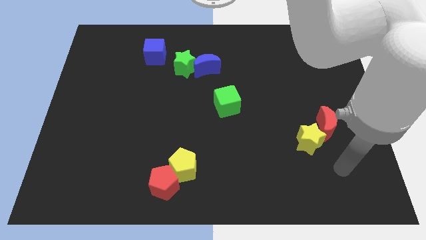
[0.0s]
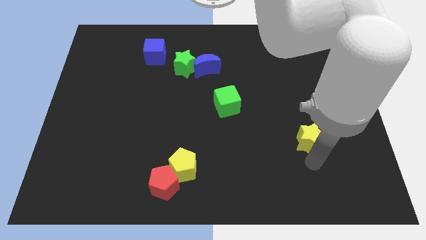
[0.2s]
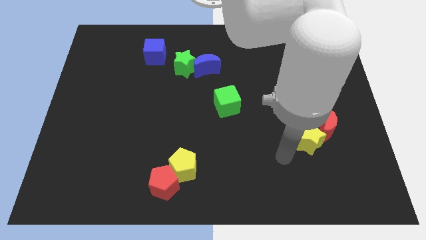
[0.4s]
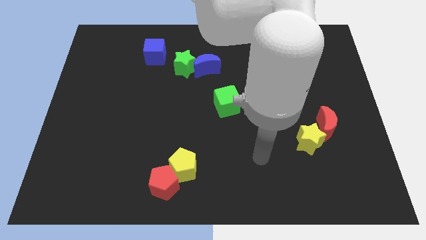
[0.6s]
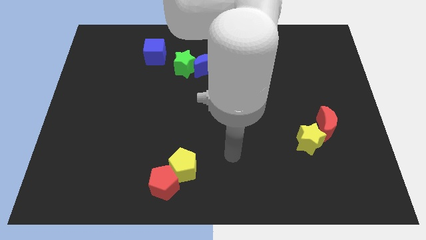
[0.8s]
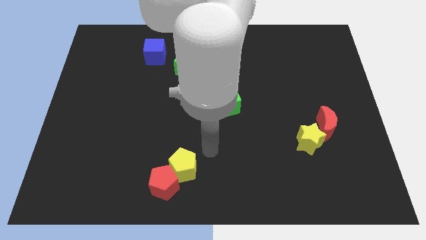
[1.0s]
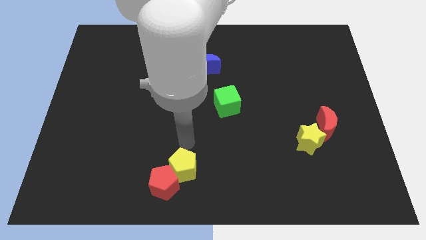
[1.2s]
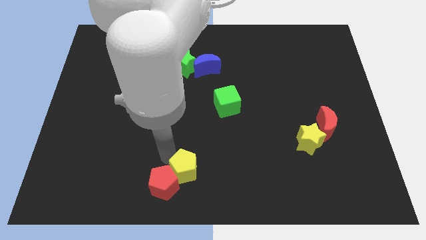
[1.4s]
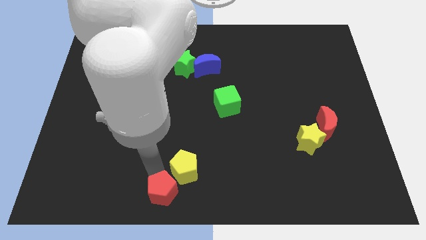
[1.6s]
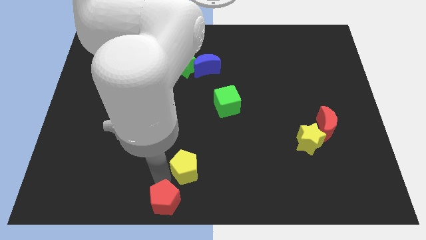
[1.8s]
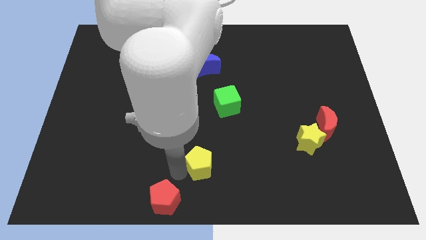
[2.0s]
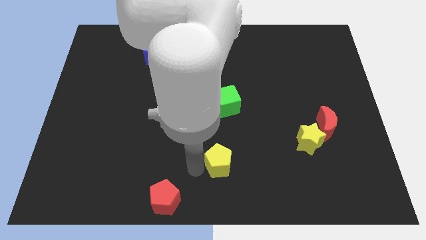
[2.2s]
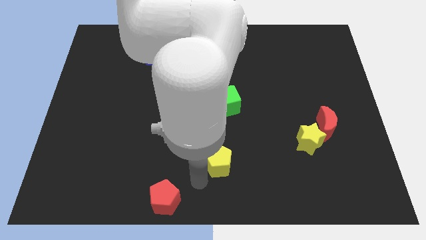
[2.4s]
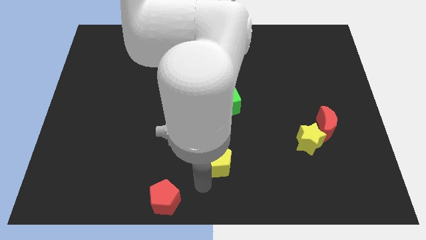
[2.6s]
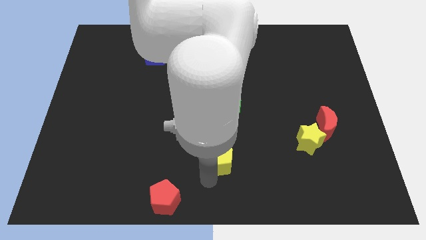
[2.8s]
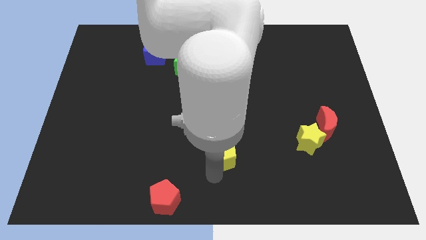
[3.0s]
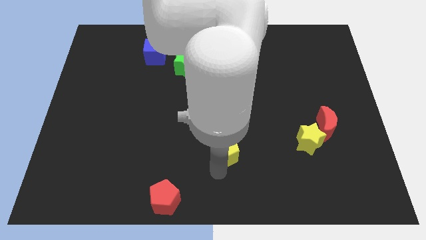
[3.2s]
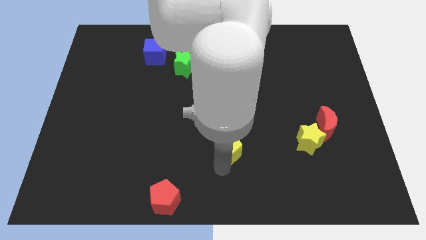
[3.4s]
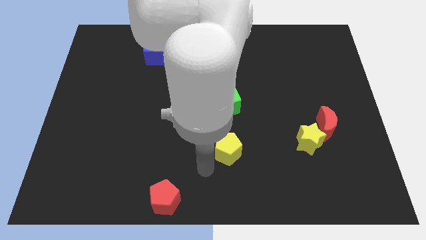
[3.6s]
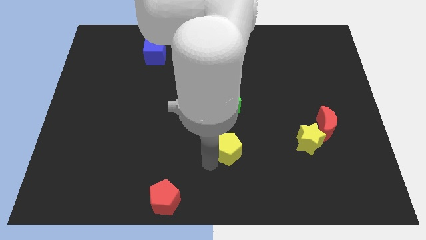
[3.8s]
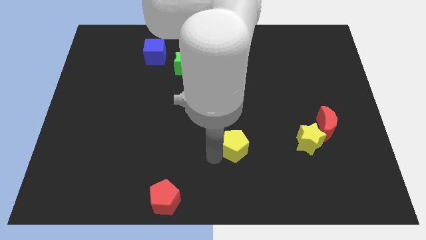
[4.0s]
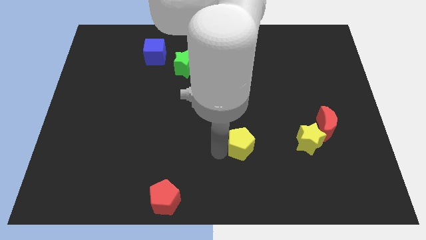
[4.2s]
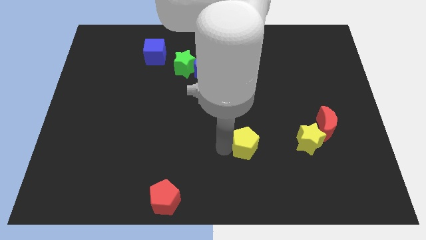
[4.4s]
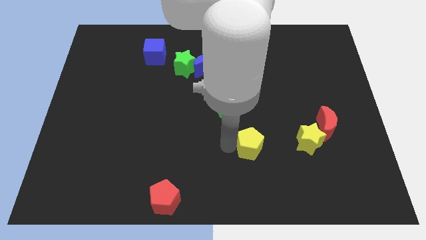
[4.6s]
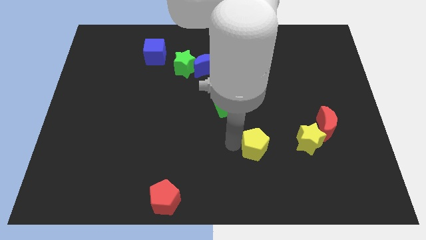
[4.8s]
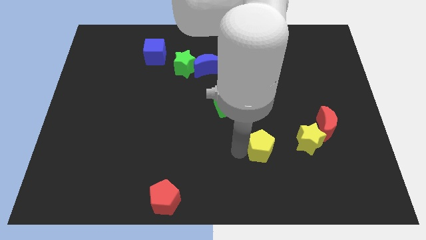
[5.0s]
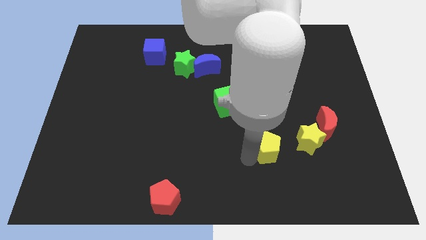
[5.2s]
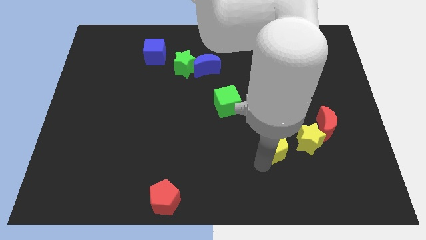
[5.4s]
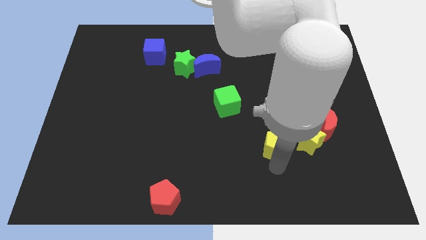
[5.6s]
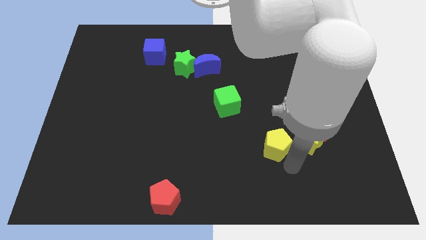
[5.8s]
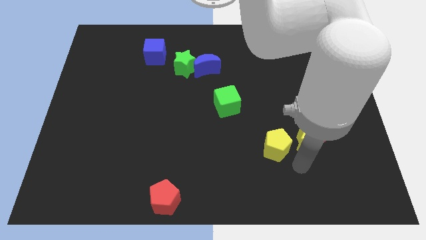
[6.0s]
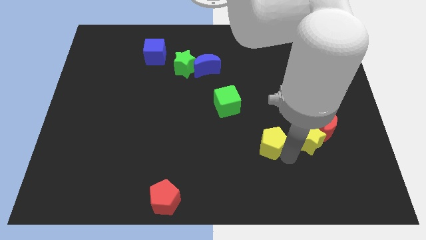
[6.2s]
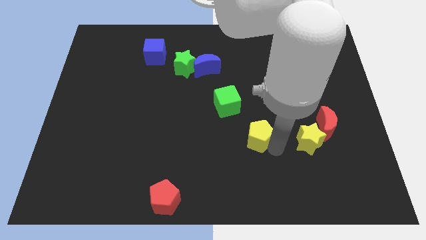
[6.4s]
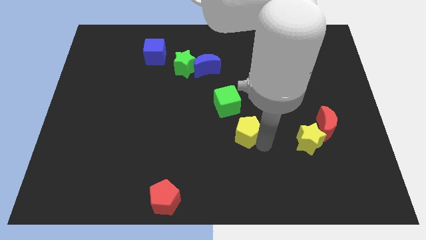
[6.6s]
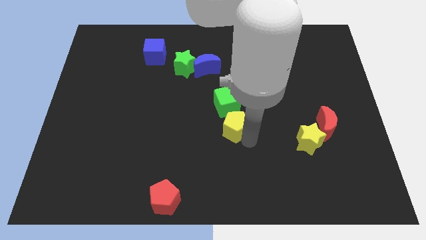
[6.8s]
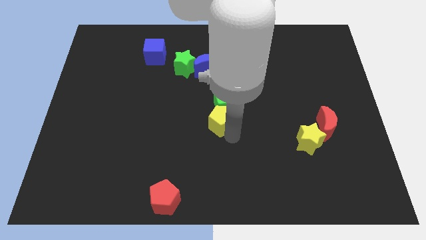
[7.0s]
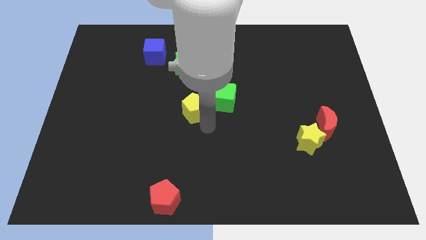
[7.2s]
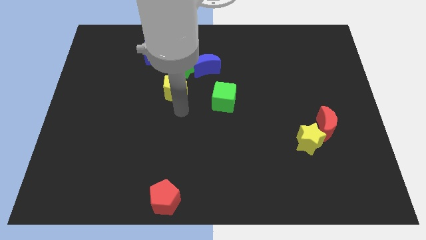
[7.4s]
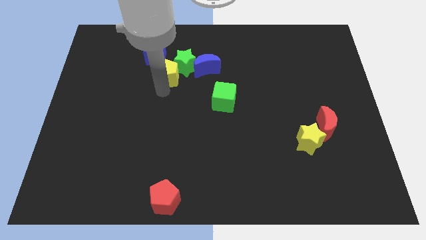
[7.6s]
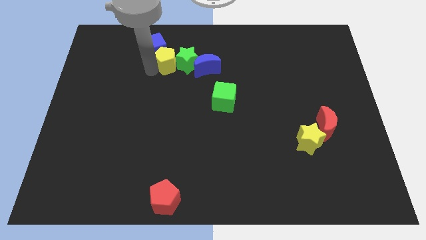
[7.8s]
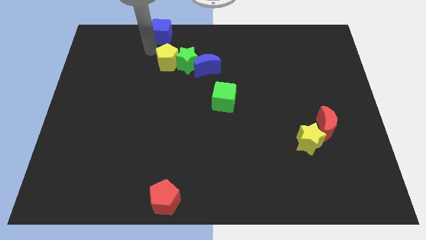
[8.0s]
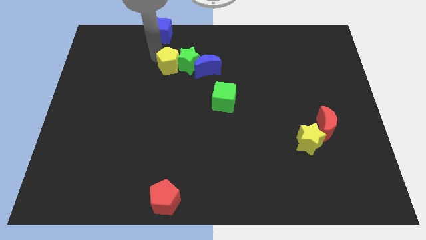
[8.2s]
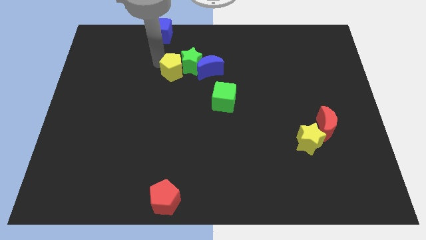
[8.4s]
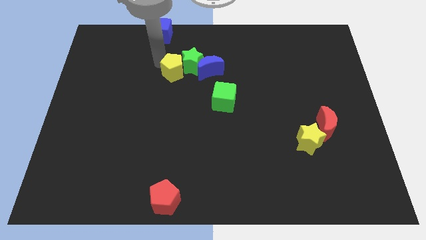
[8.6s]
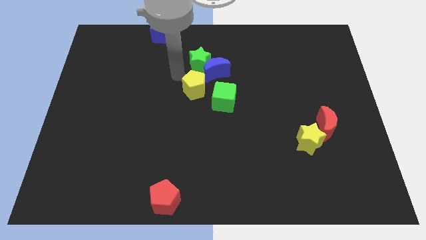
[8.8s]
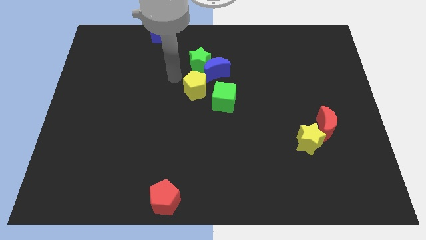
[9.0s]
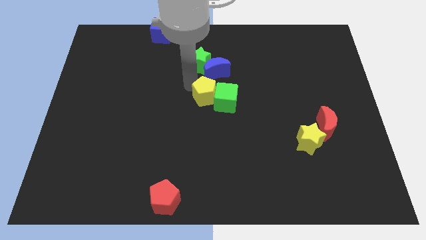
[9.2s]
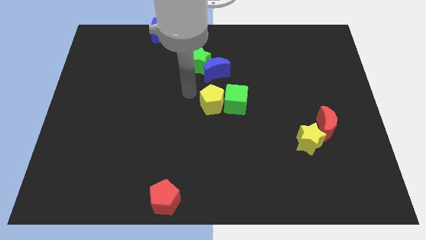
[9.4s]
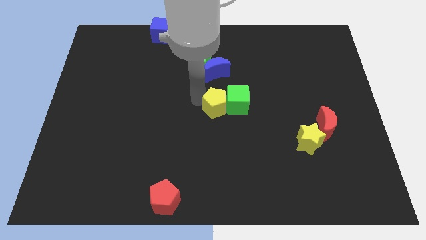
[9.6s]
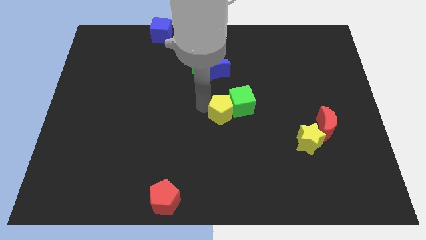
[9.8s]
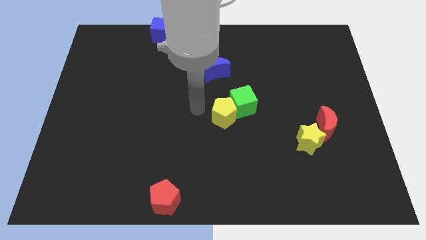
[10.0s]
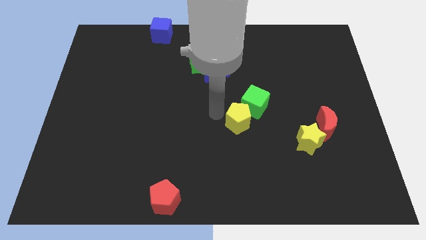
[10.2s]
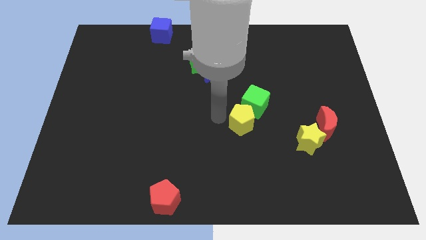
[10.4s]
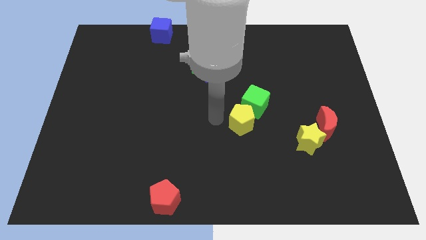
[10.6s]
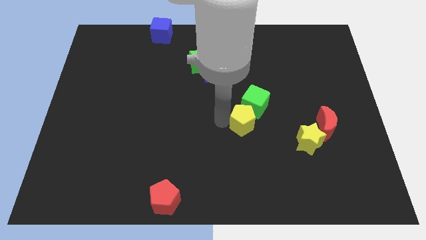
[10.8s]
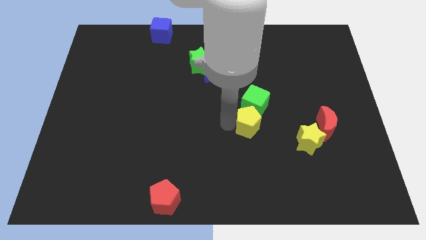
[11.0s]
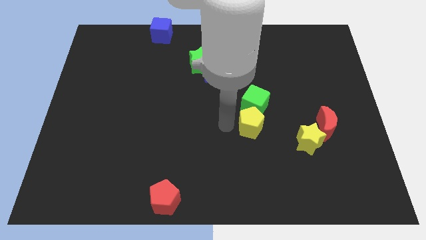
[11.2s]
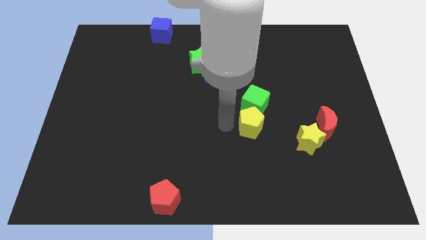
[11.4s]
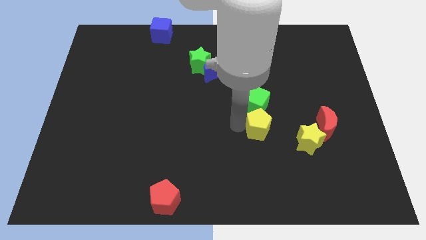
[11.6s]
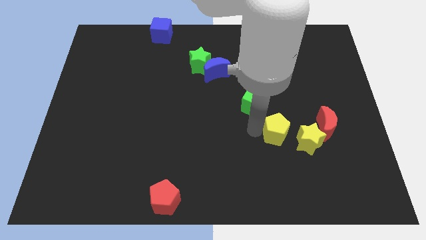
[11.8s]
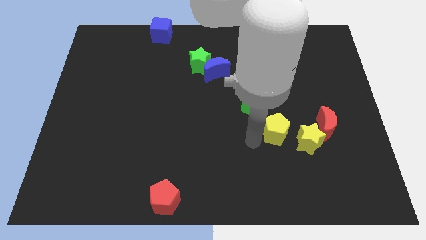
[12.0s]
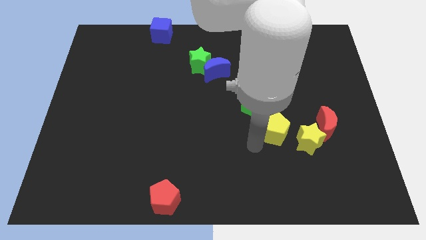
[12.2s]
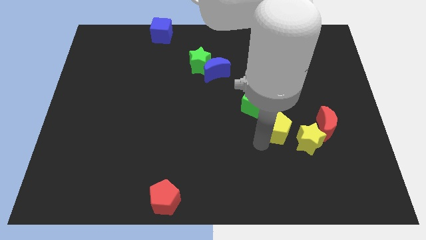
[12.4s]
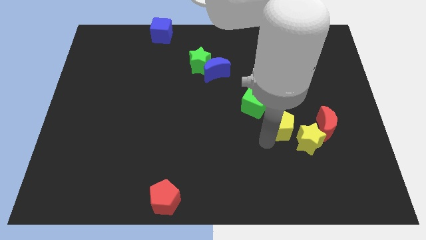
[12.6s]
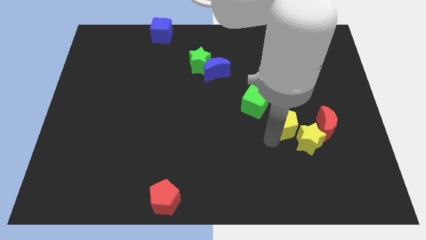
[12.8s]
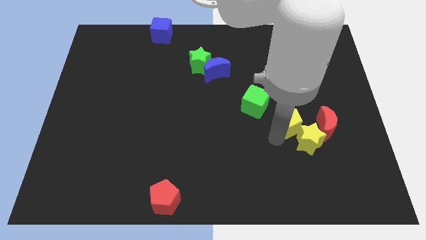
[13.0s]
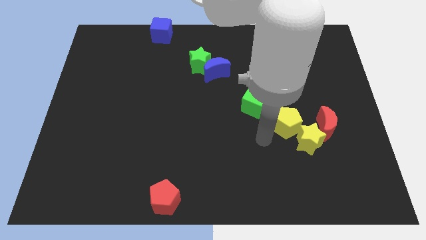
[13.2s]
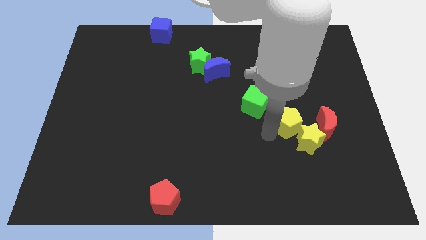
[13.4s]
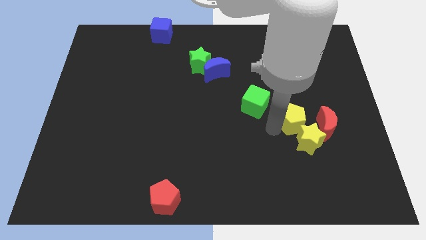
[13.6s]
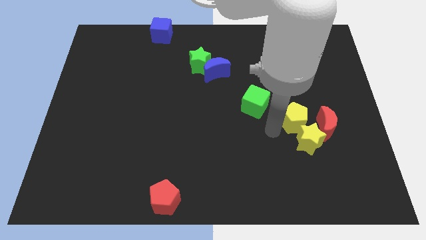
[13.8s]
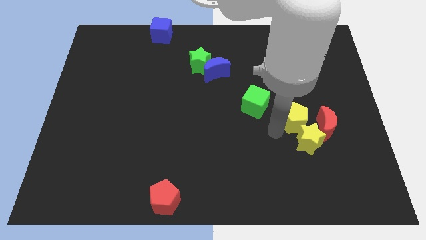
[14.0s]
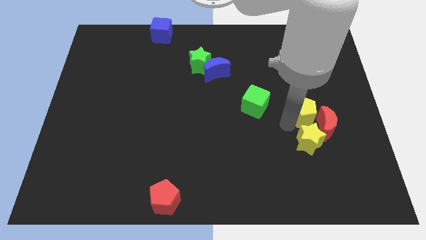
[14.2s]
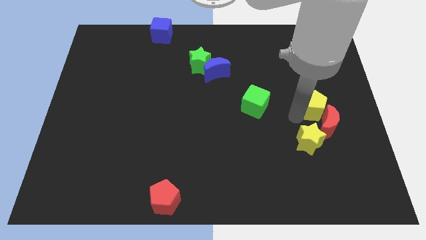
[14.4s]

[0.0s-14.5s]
slide the yellow pentagon to the top right side of the yellow star
